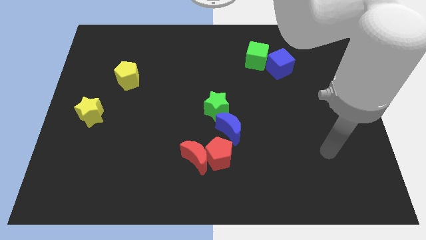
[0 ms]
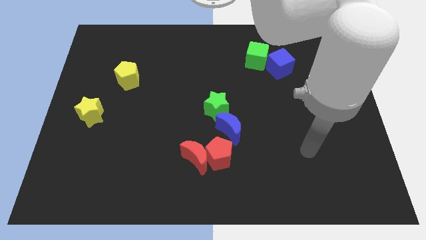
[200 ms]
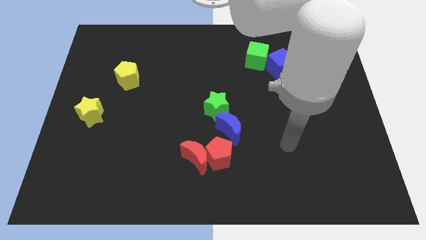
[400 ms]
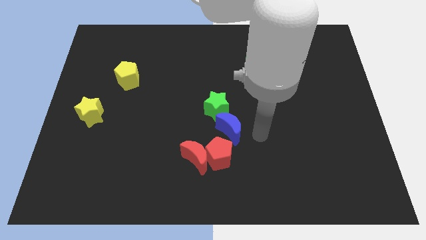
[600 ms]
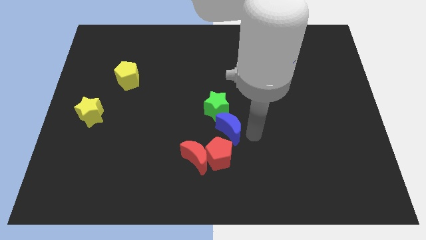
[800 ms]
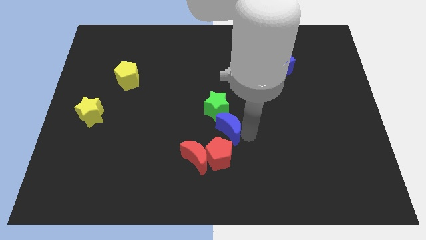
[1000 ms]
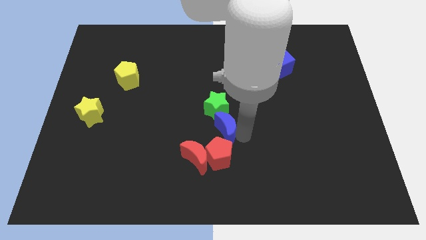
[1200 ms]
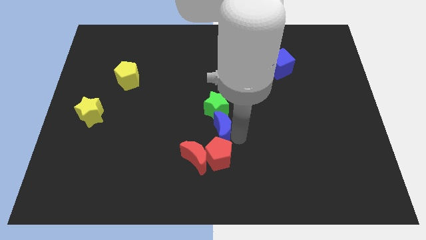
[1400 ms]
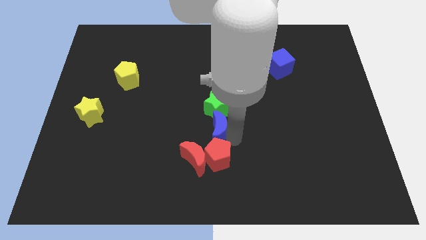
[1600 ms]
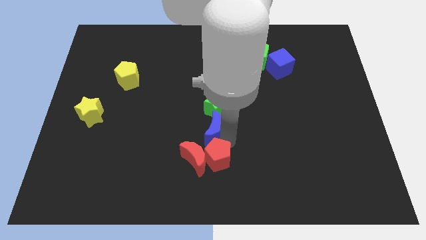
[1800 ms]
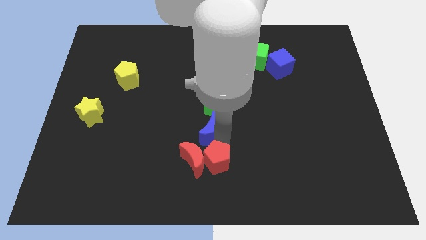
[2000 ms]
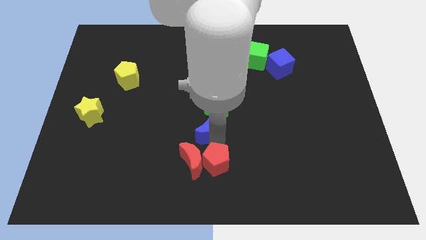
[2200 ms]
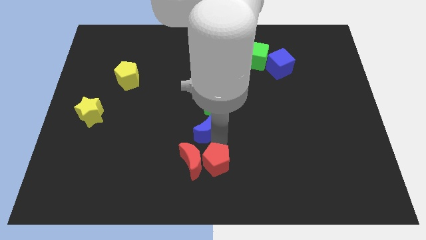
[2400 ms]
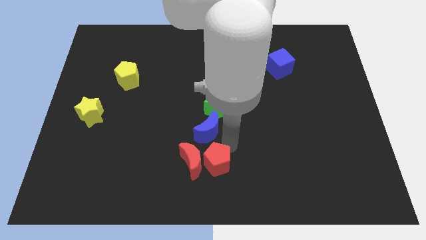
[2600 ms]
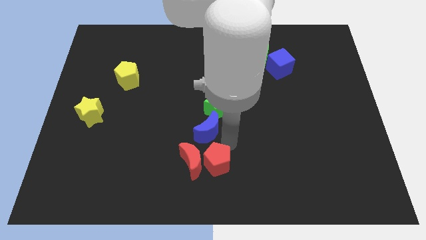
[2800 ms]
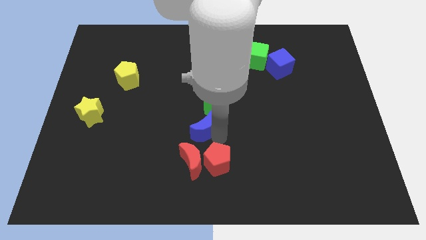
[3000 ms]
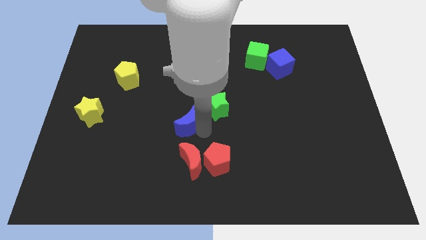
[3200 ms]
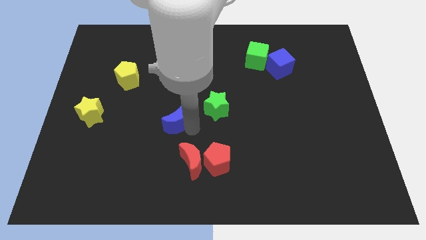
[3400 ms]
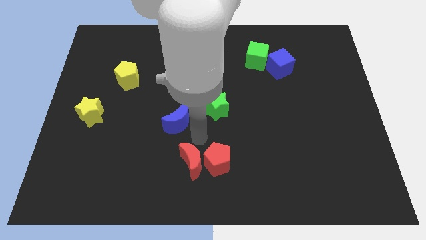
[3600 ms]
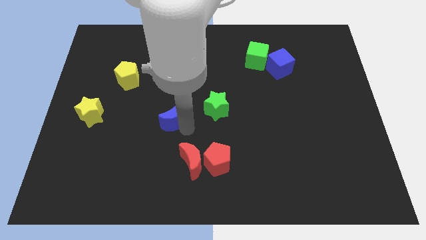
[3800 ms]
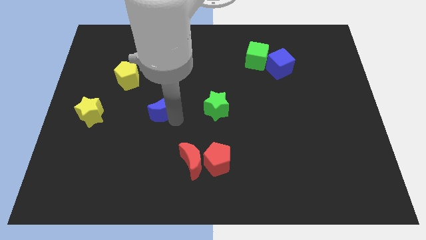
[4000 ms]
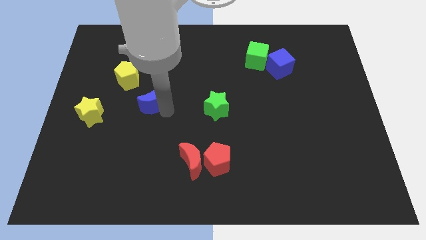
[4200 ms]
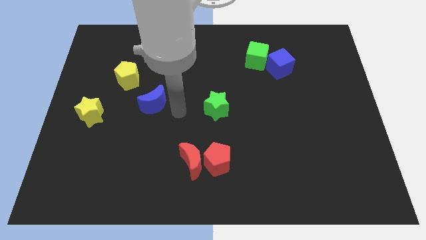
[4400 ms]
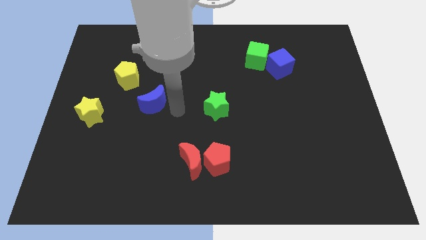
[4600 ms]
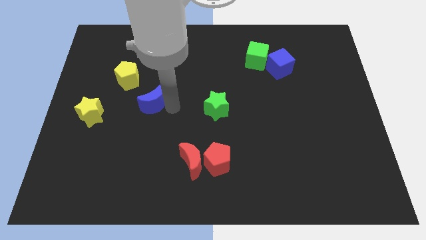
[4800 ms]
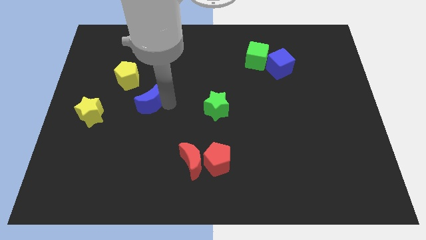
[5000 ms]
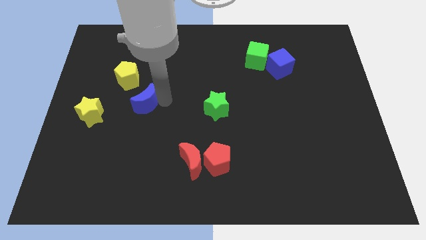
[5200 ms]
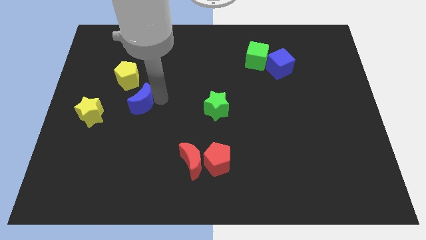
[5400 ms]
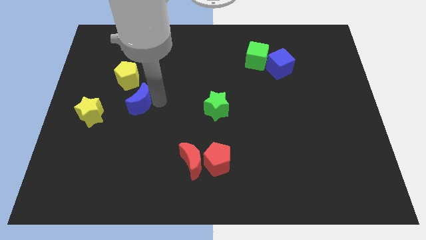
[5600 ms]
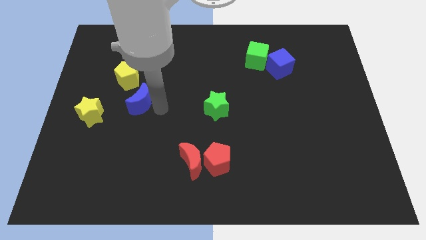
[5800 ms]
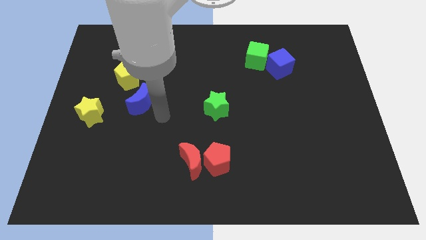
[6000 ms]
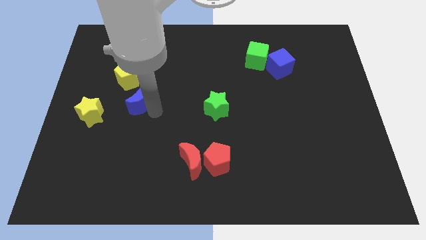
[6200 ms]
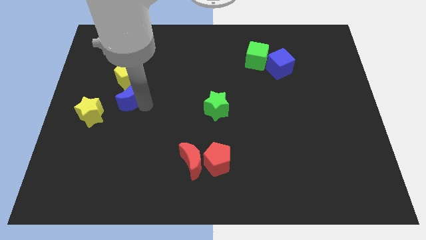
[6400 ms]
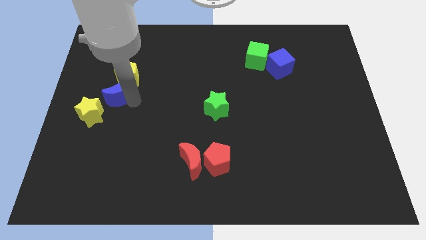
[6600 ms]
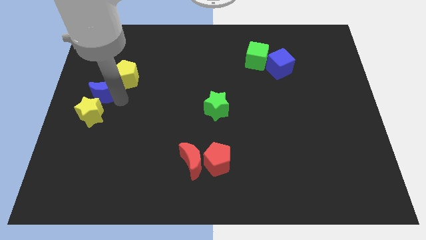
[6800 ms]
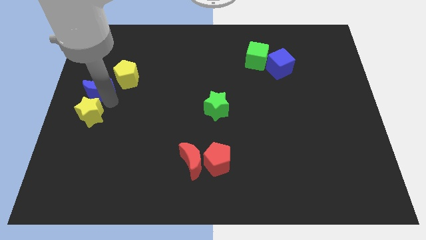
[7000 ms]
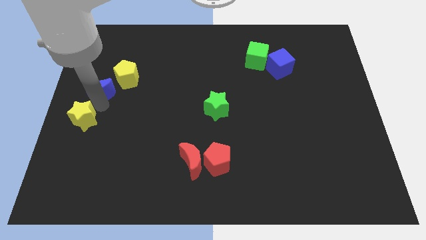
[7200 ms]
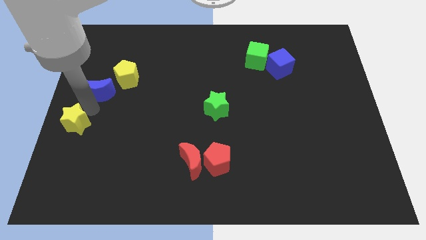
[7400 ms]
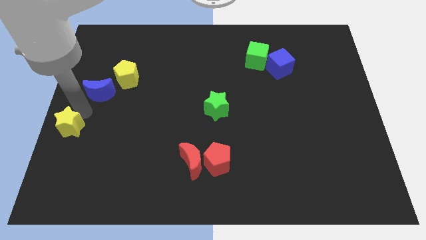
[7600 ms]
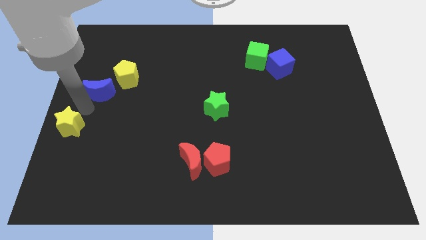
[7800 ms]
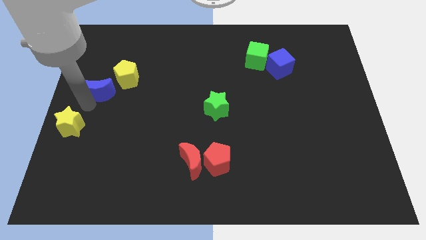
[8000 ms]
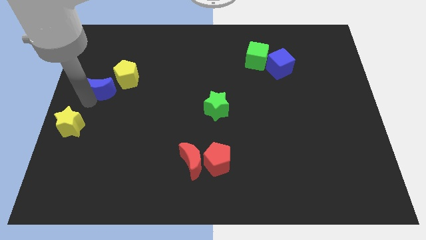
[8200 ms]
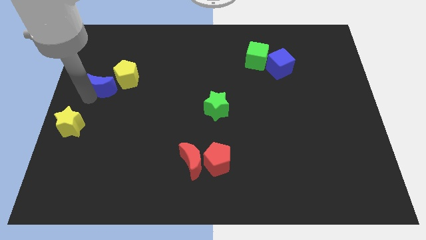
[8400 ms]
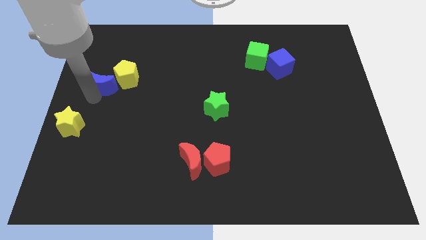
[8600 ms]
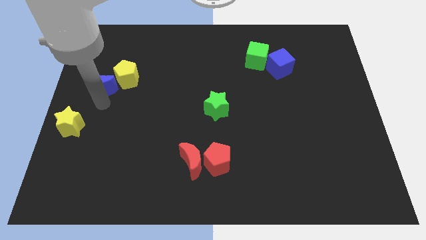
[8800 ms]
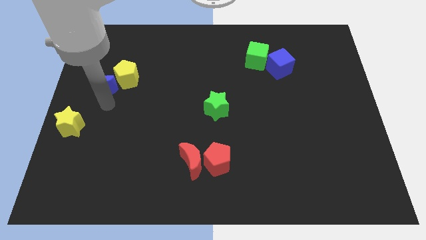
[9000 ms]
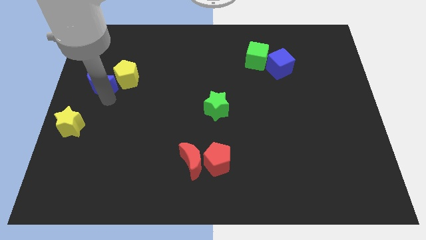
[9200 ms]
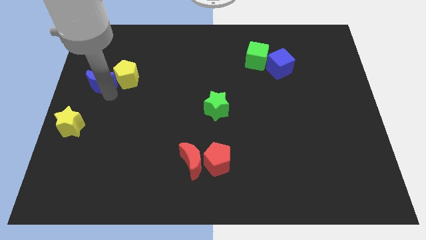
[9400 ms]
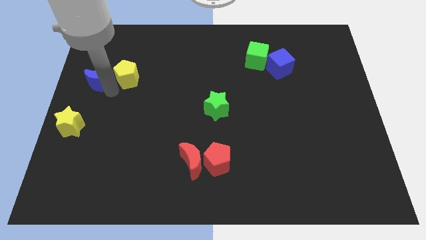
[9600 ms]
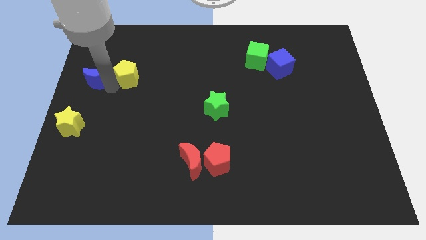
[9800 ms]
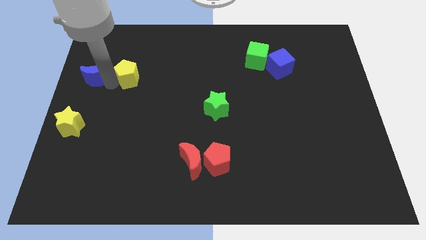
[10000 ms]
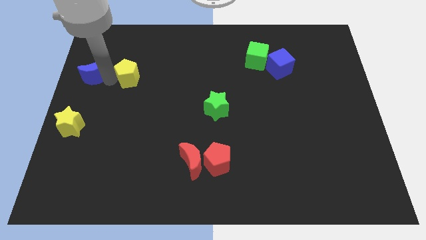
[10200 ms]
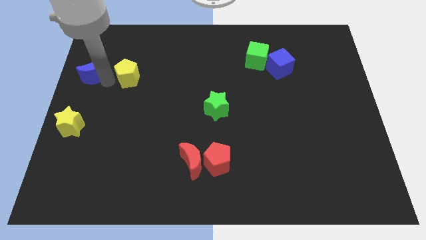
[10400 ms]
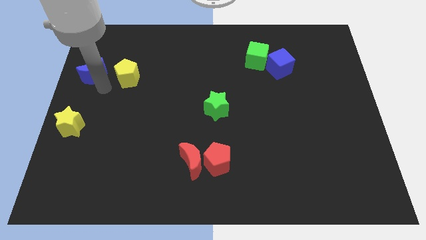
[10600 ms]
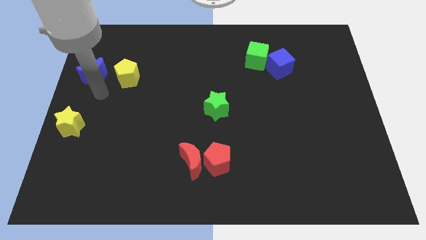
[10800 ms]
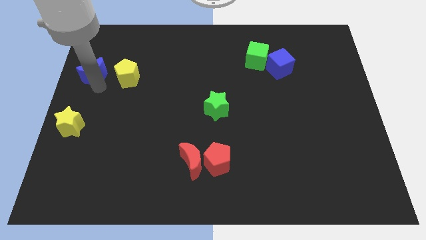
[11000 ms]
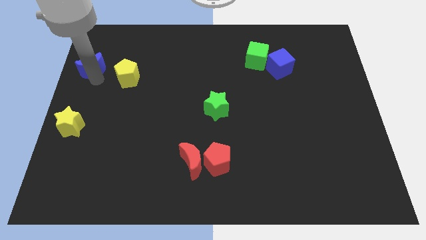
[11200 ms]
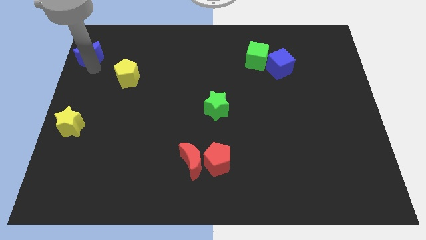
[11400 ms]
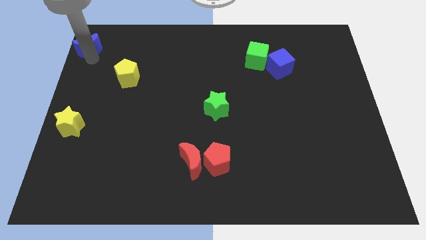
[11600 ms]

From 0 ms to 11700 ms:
push the blue moon to the top left corner
